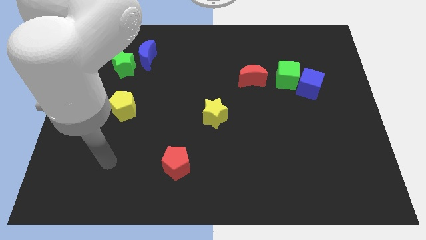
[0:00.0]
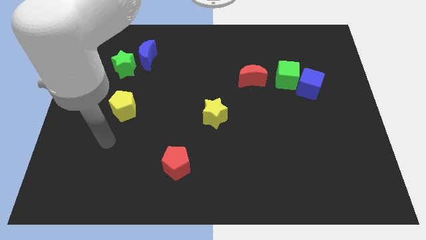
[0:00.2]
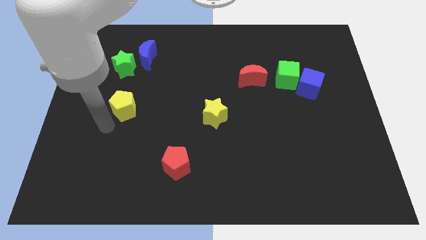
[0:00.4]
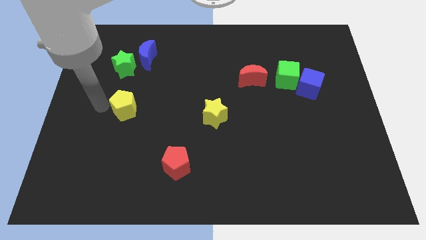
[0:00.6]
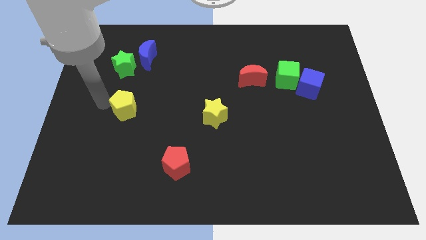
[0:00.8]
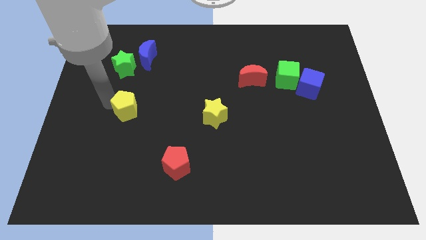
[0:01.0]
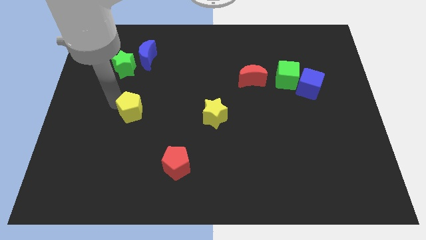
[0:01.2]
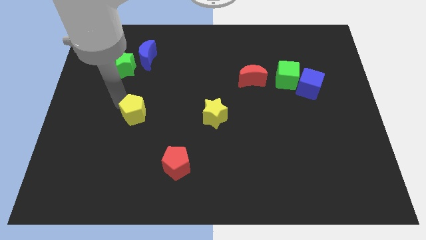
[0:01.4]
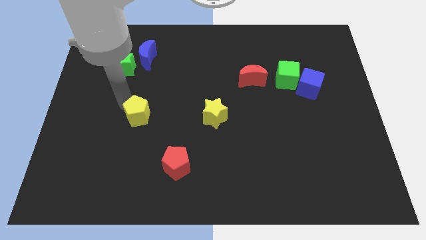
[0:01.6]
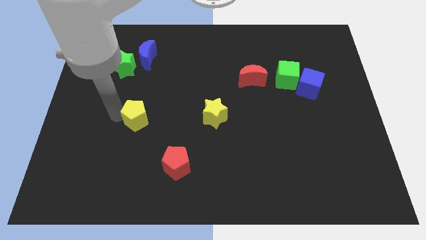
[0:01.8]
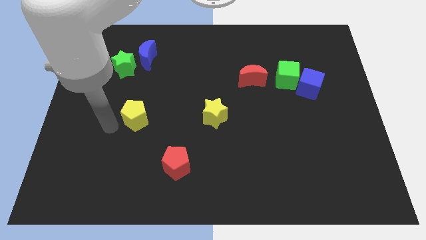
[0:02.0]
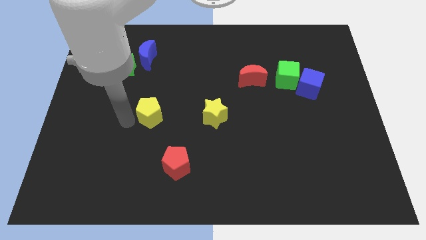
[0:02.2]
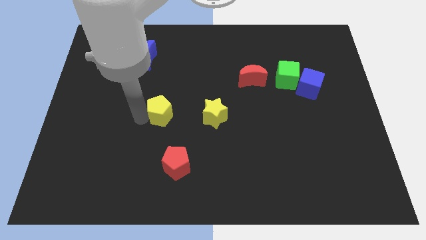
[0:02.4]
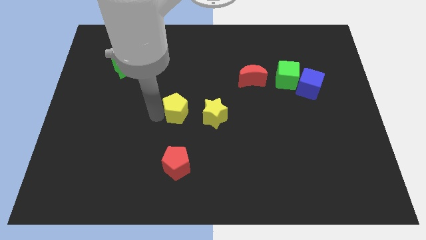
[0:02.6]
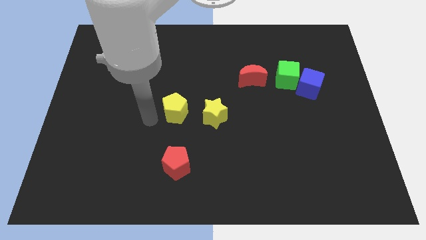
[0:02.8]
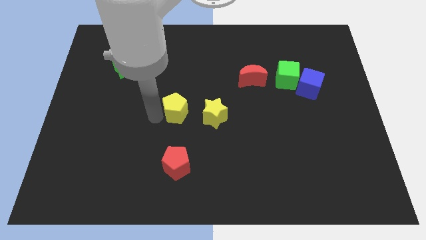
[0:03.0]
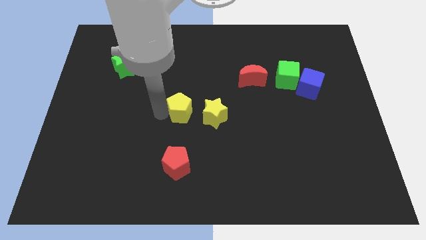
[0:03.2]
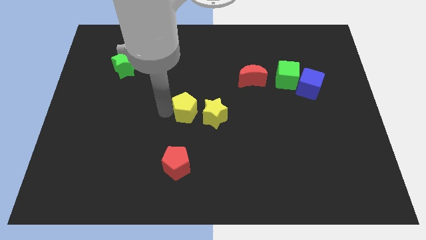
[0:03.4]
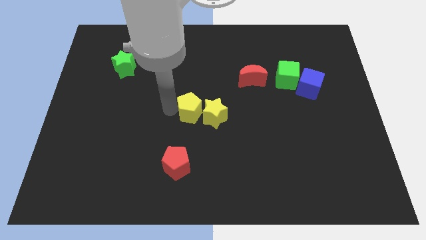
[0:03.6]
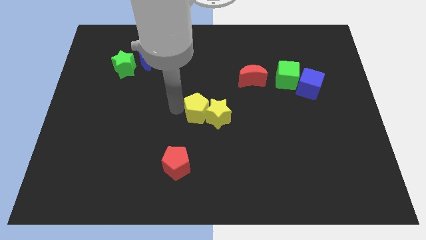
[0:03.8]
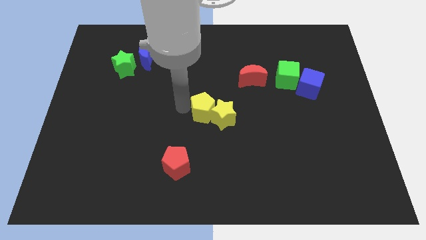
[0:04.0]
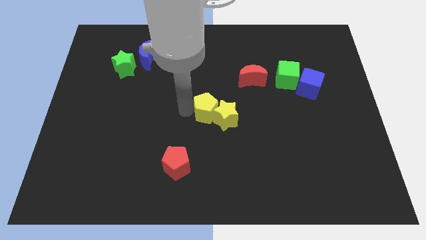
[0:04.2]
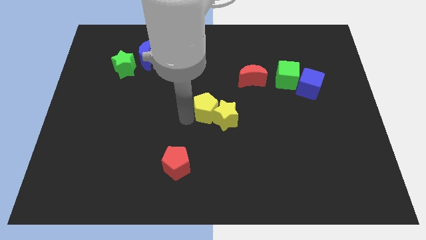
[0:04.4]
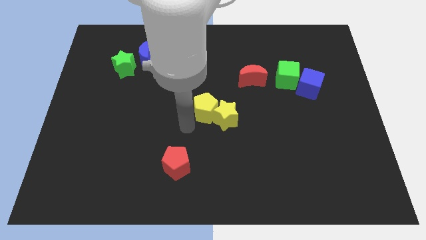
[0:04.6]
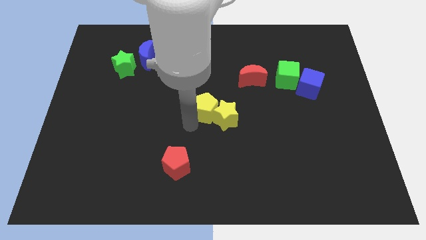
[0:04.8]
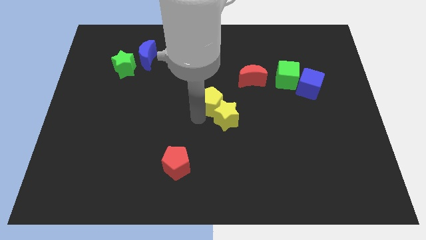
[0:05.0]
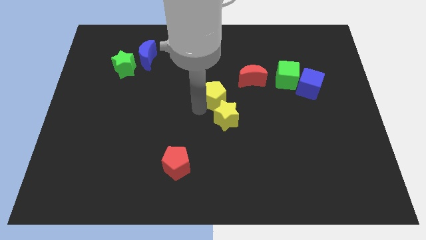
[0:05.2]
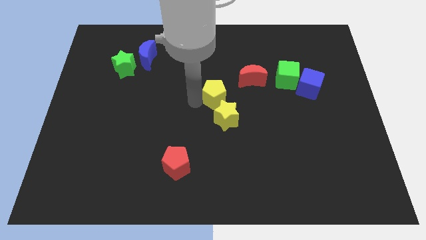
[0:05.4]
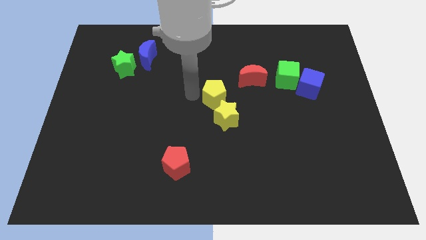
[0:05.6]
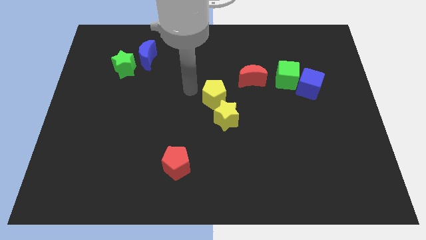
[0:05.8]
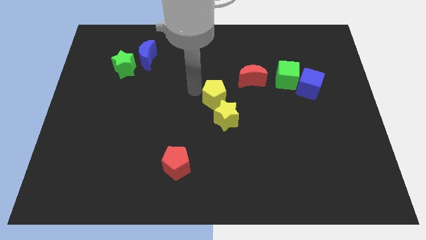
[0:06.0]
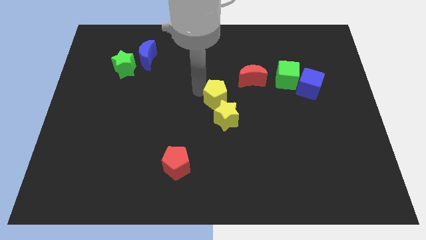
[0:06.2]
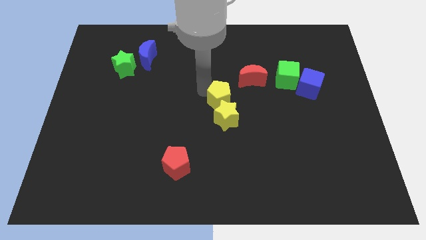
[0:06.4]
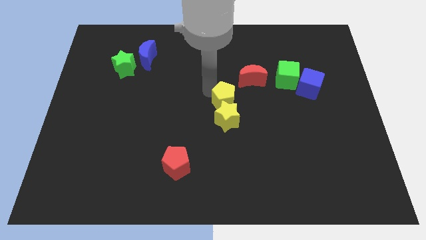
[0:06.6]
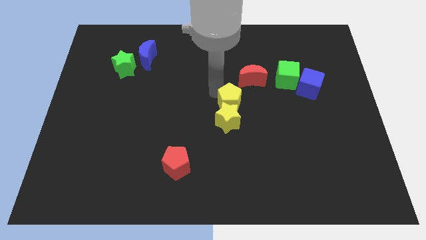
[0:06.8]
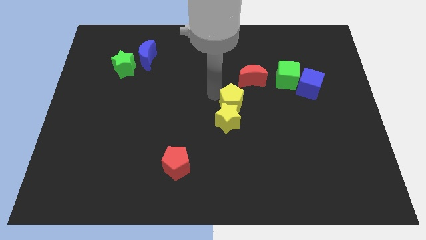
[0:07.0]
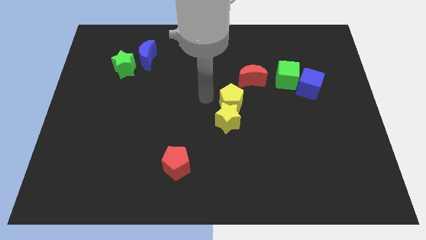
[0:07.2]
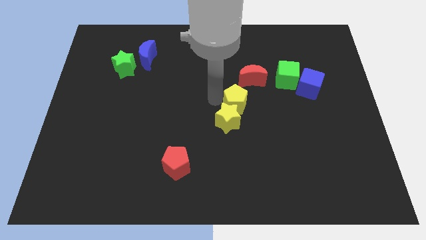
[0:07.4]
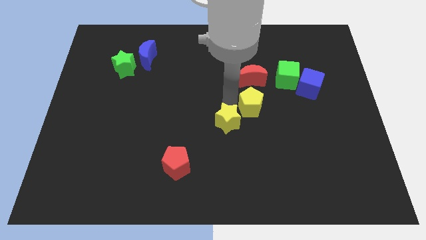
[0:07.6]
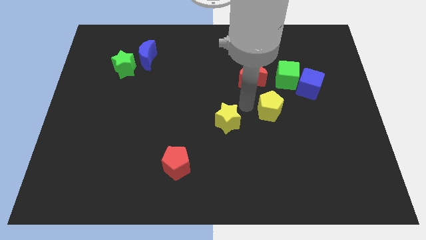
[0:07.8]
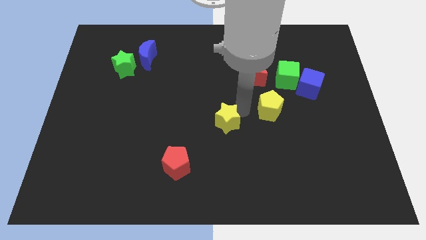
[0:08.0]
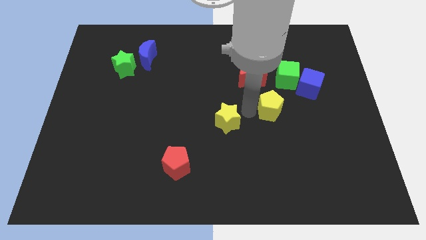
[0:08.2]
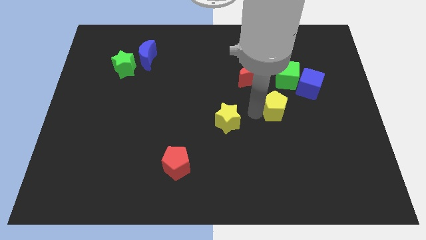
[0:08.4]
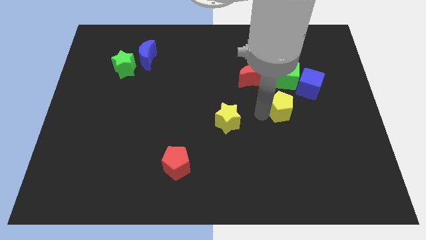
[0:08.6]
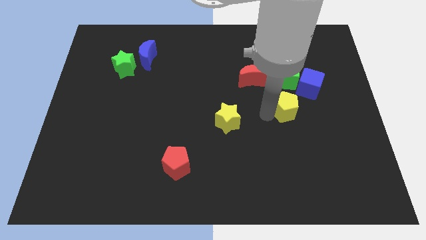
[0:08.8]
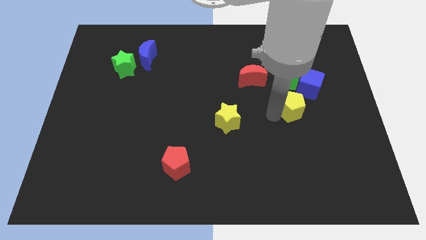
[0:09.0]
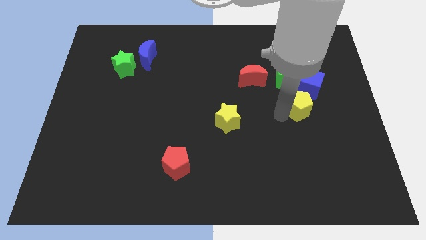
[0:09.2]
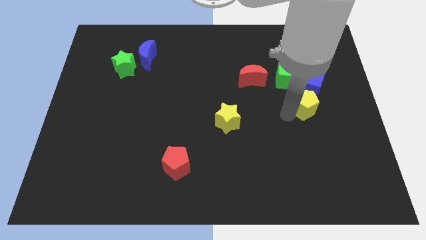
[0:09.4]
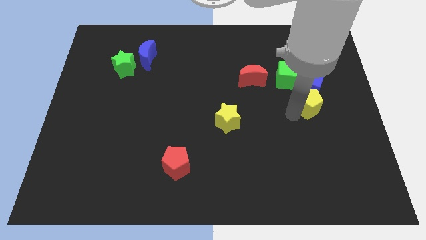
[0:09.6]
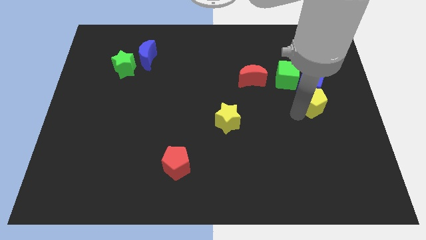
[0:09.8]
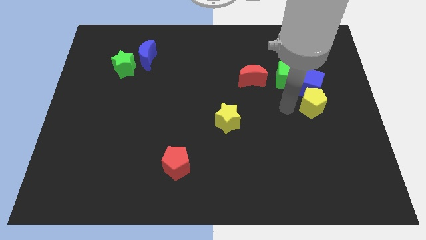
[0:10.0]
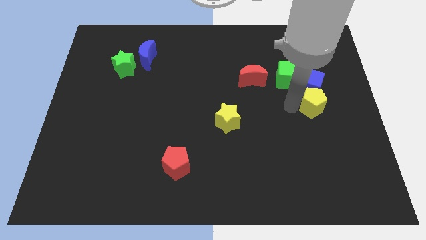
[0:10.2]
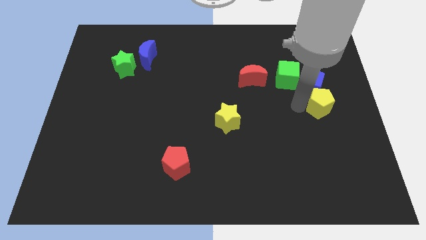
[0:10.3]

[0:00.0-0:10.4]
move the yellow pentagon to the right side of the board

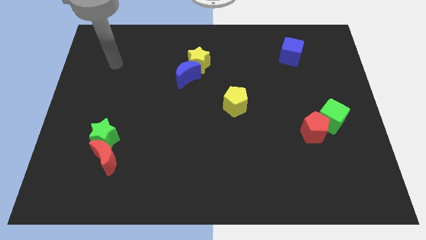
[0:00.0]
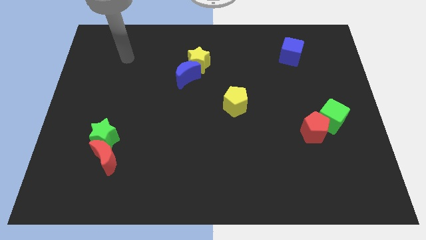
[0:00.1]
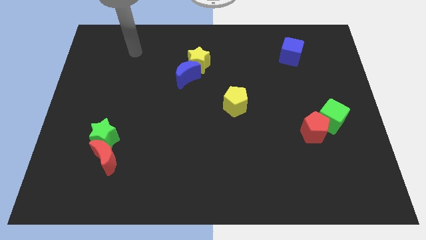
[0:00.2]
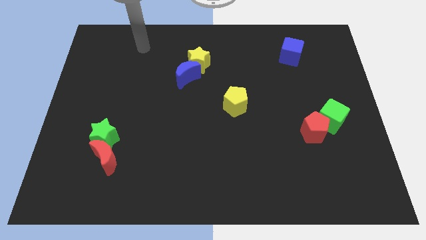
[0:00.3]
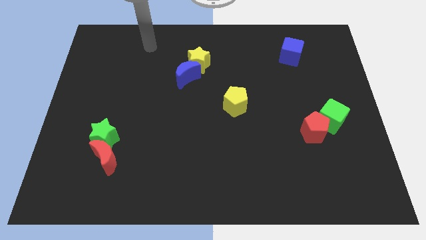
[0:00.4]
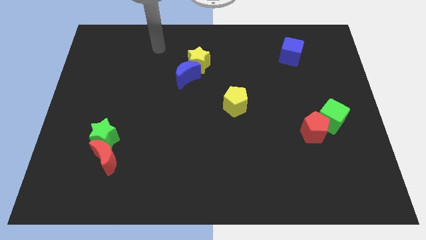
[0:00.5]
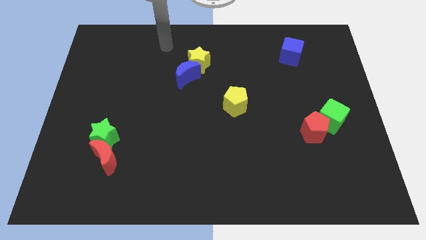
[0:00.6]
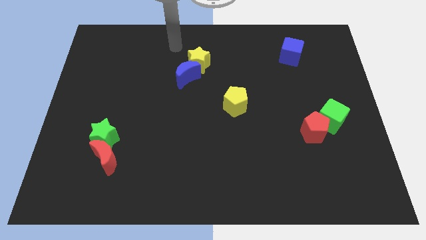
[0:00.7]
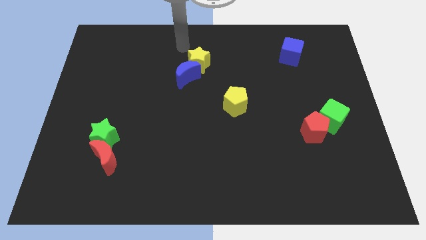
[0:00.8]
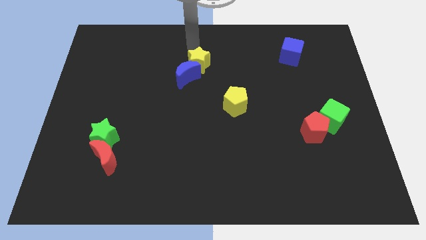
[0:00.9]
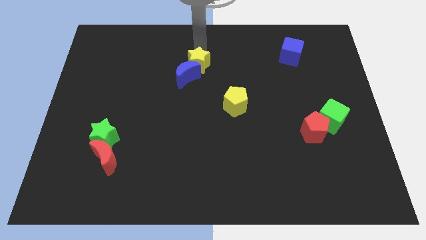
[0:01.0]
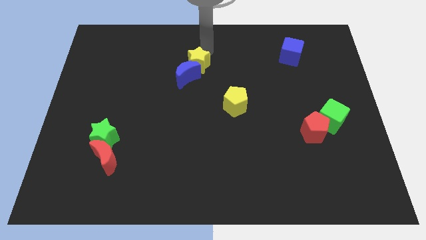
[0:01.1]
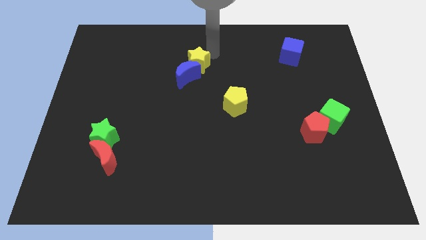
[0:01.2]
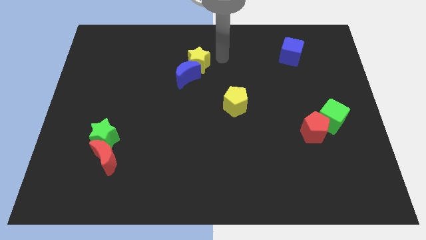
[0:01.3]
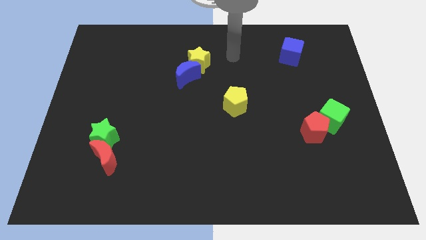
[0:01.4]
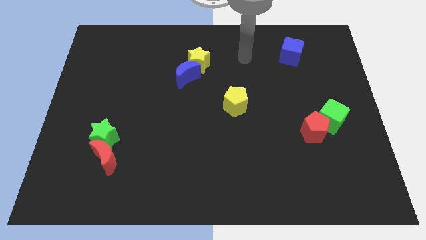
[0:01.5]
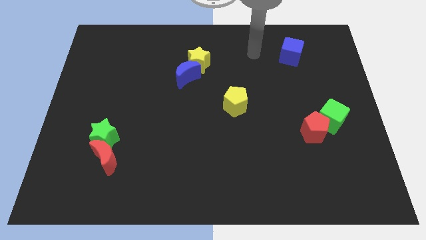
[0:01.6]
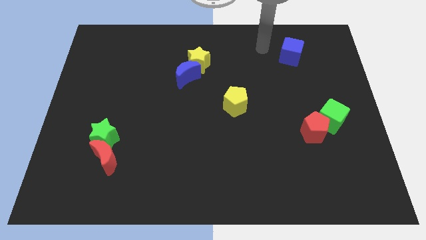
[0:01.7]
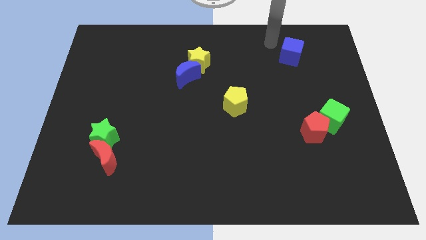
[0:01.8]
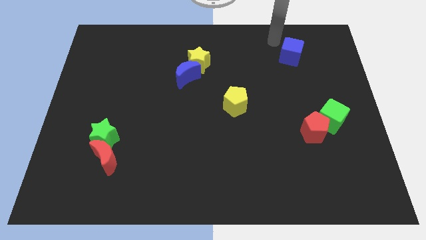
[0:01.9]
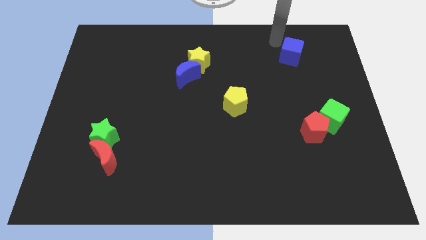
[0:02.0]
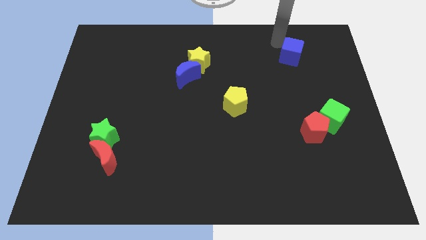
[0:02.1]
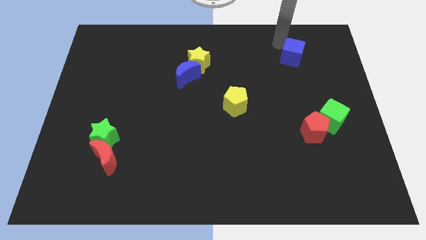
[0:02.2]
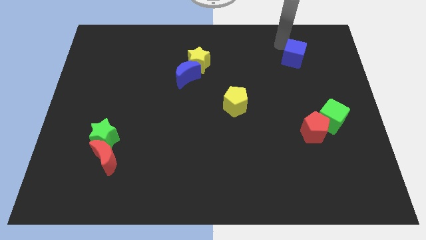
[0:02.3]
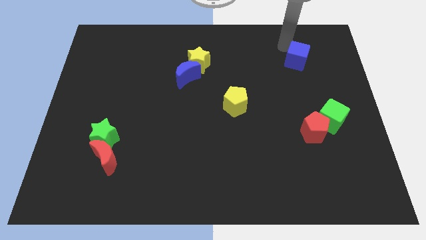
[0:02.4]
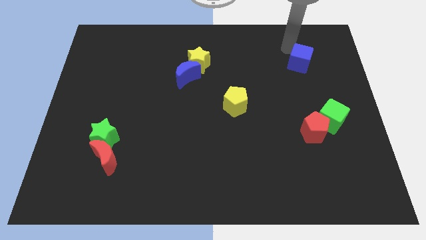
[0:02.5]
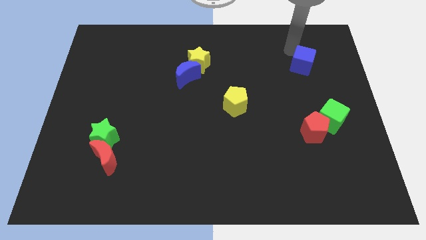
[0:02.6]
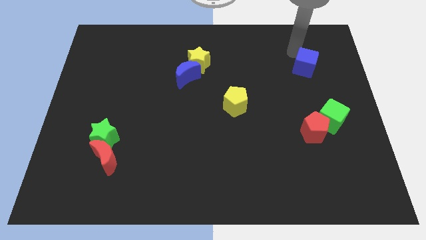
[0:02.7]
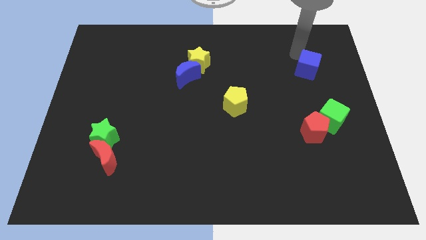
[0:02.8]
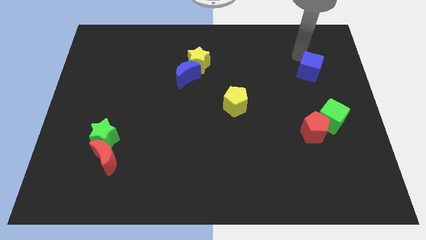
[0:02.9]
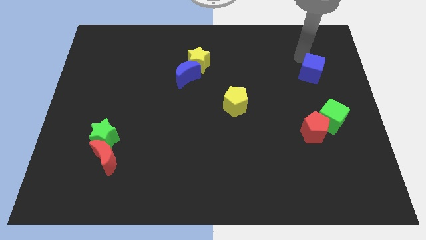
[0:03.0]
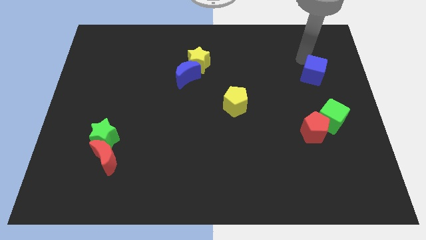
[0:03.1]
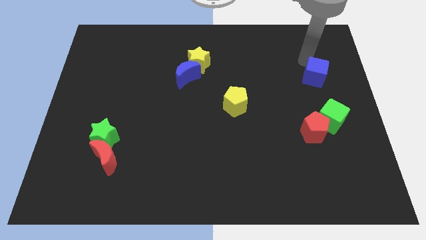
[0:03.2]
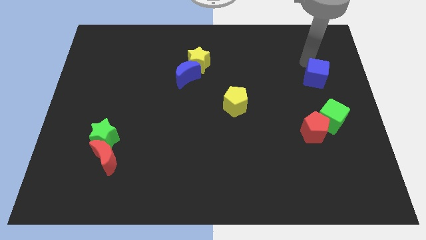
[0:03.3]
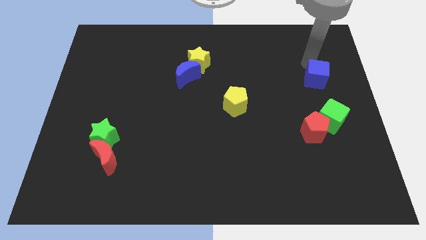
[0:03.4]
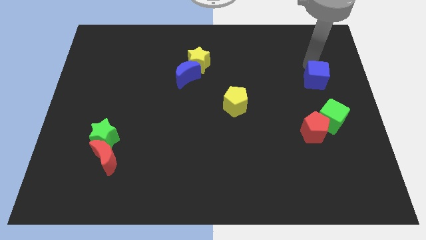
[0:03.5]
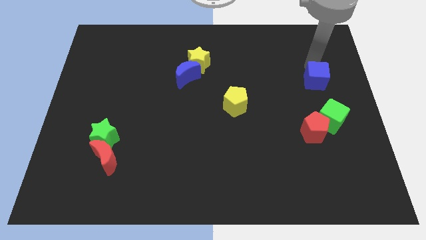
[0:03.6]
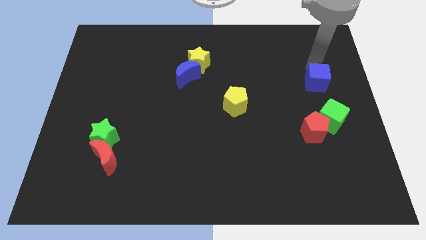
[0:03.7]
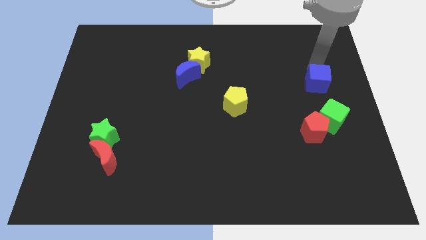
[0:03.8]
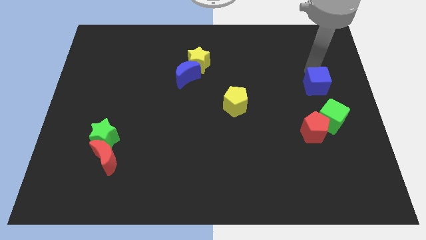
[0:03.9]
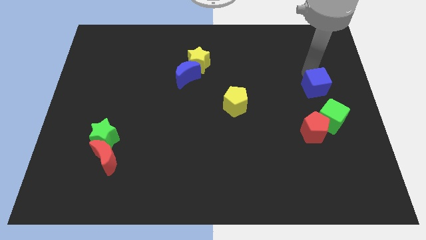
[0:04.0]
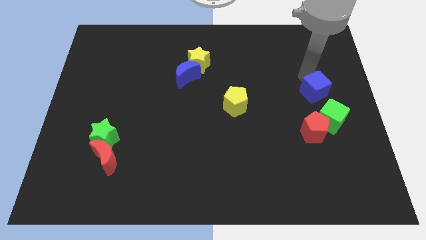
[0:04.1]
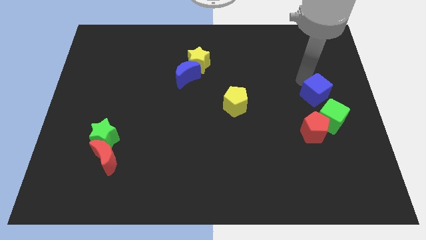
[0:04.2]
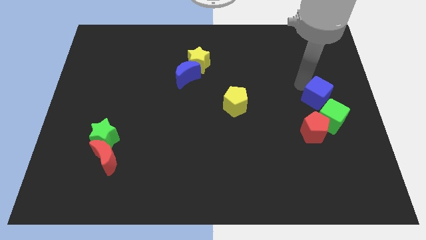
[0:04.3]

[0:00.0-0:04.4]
push the blue cube to the right side
